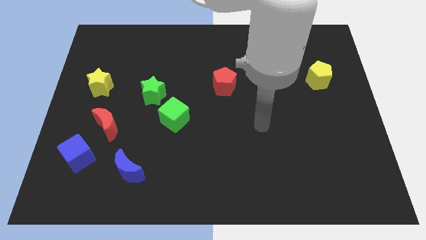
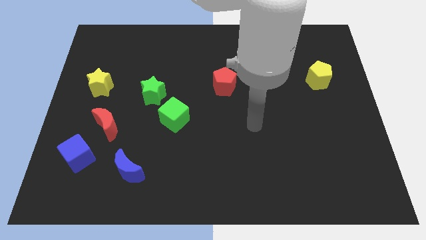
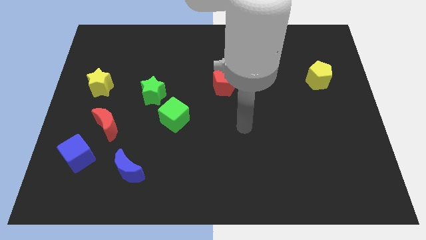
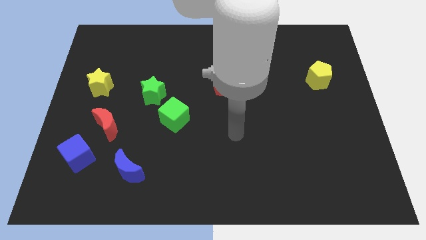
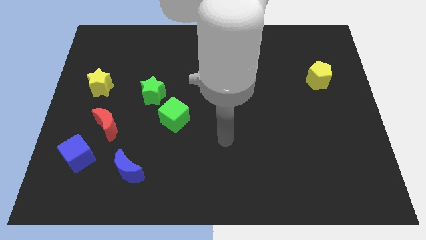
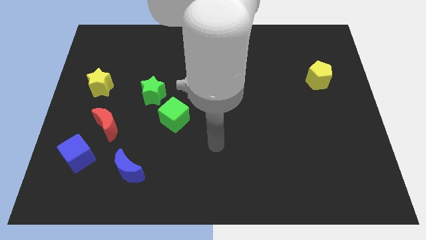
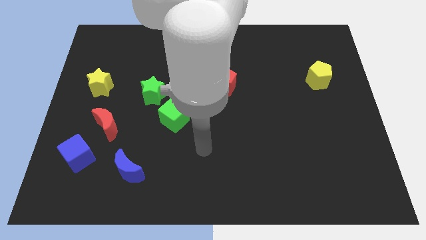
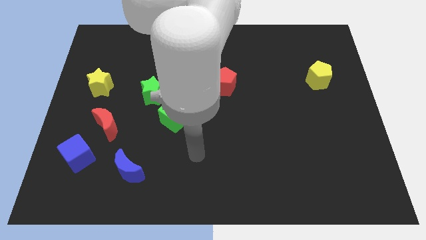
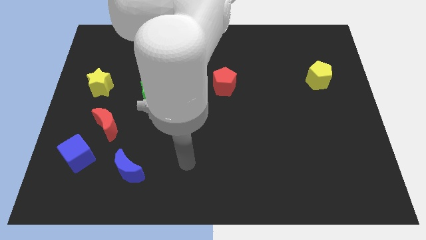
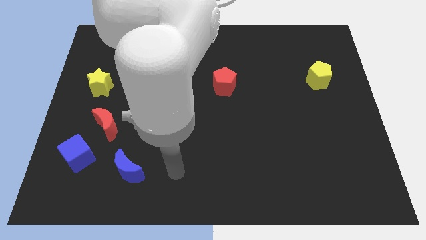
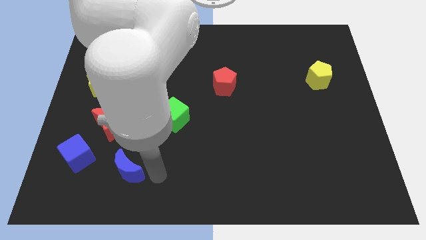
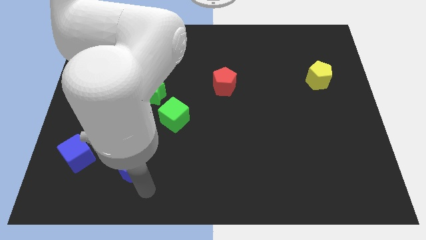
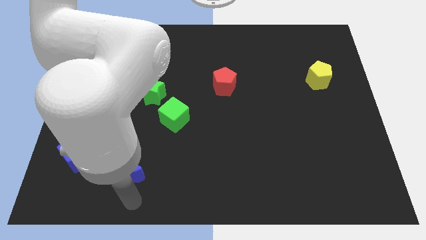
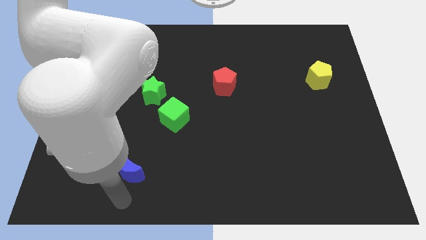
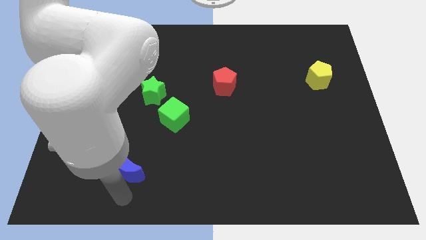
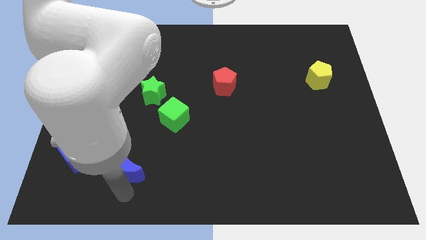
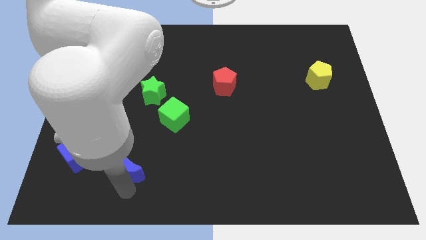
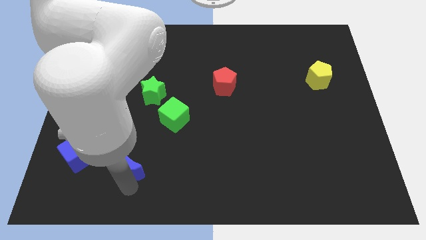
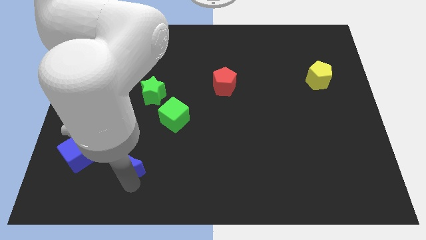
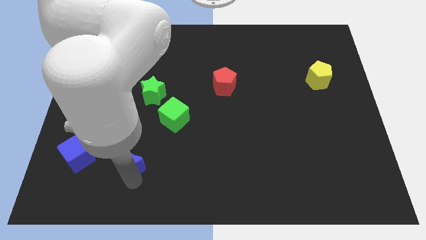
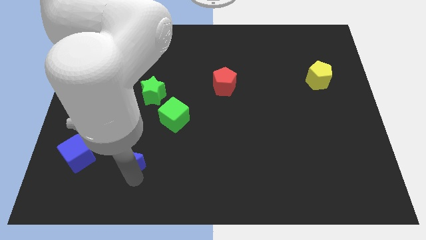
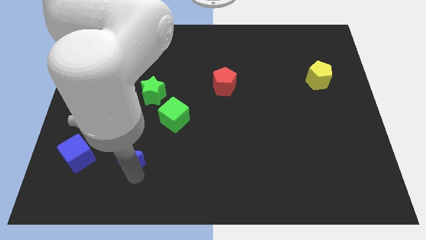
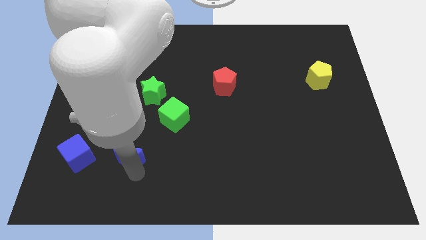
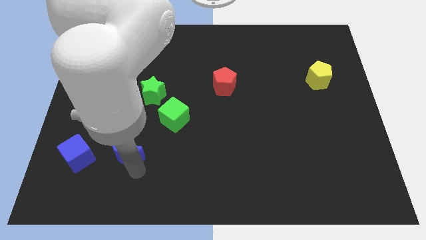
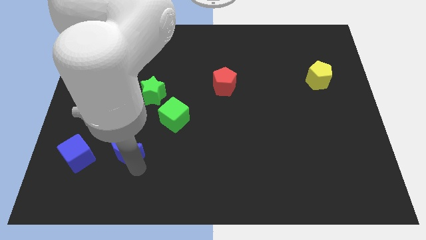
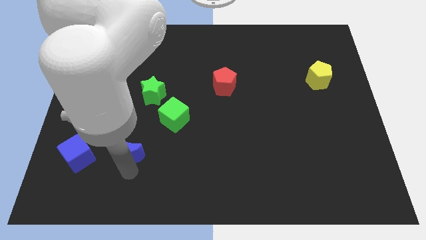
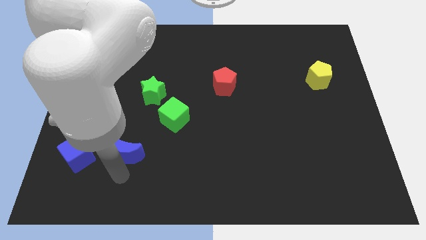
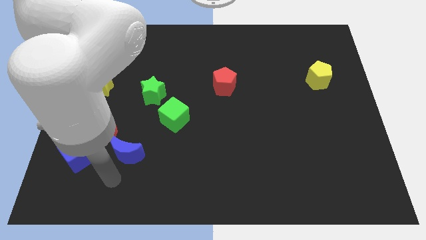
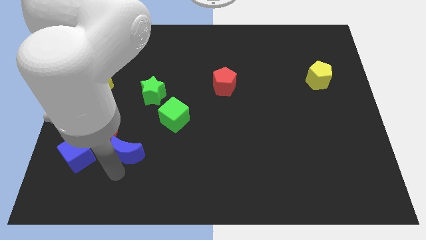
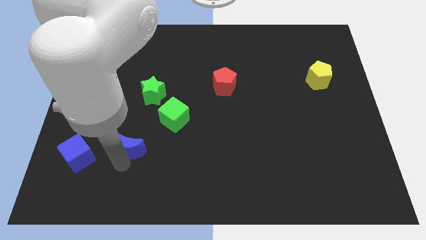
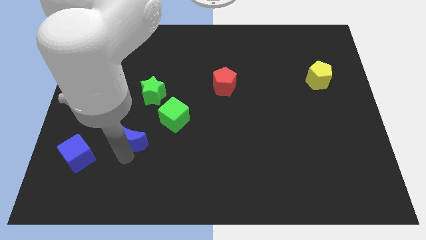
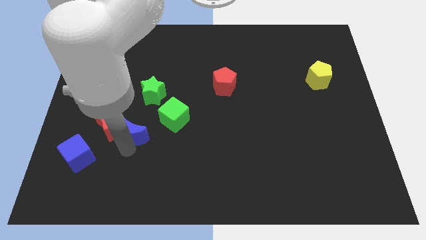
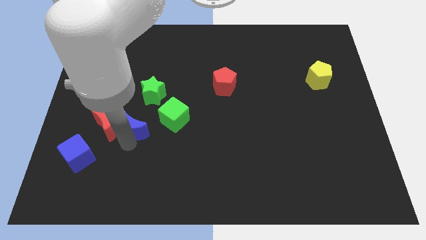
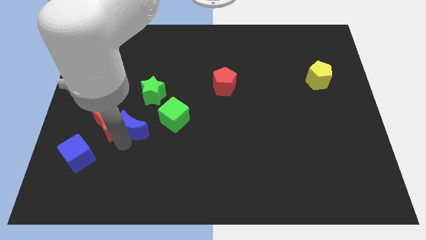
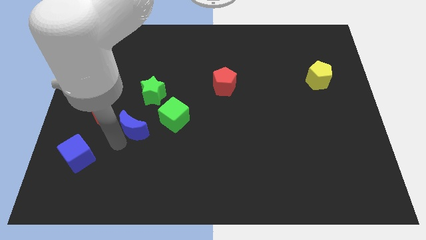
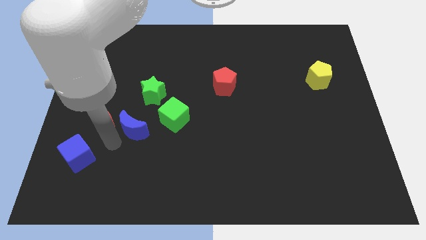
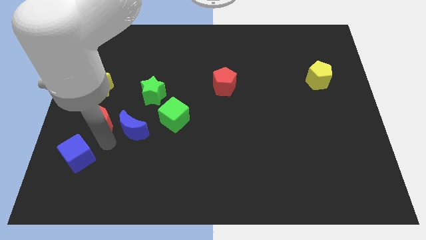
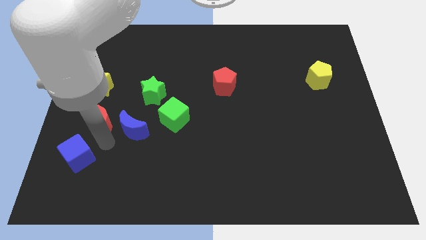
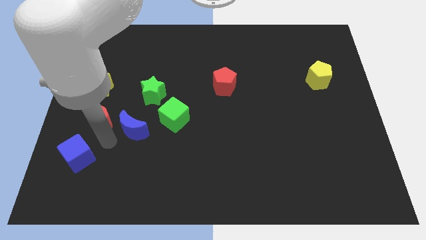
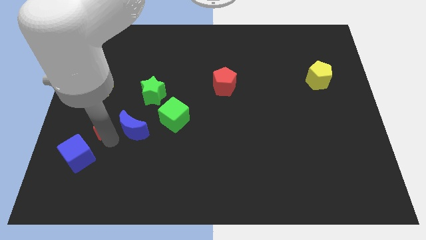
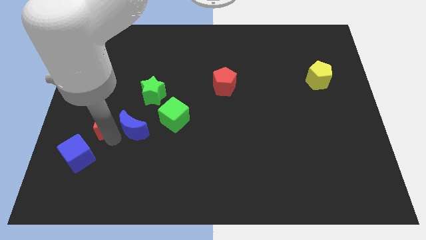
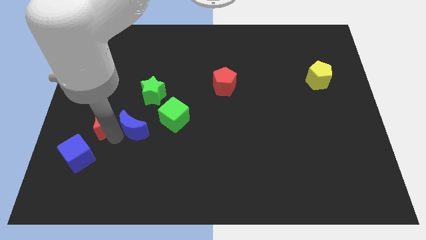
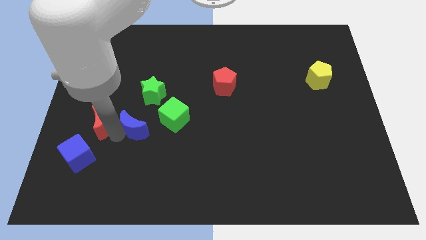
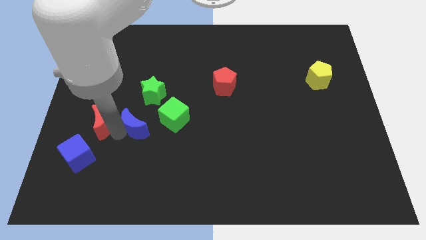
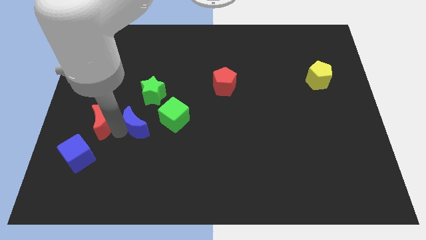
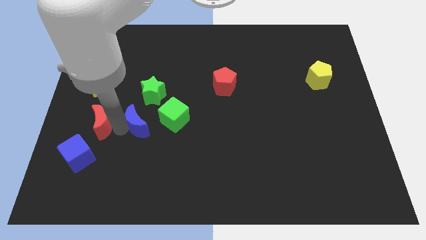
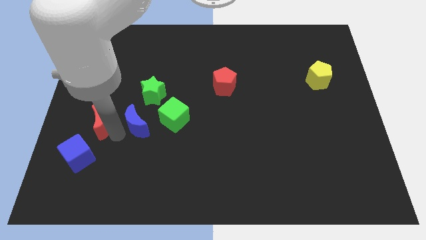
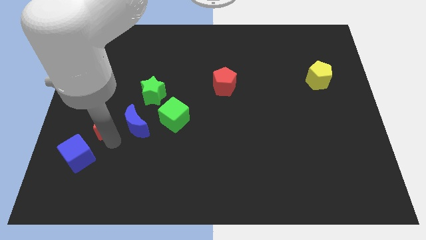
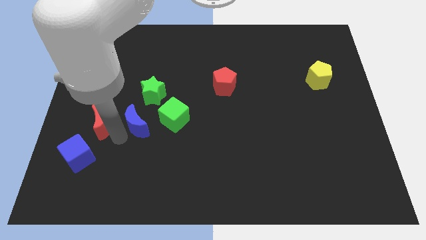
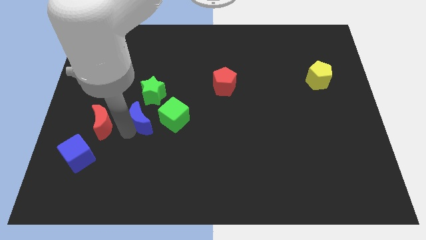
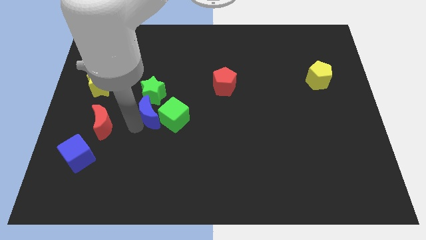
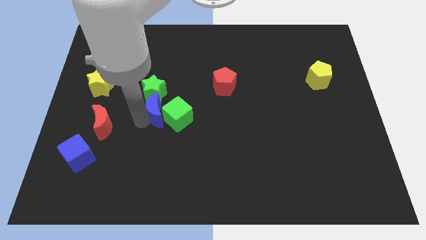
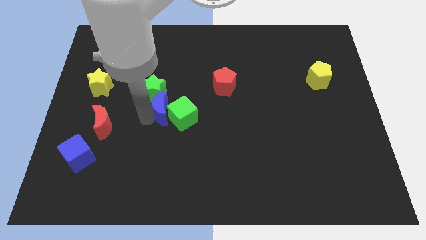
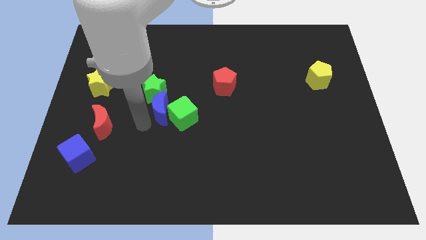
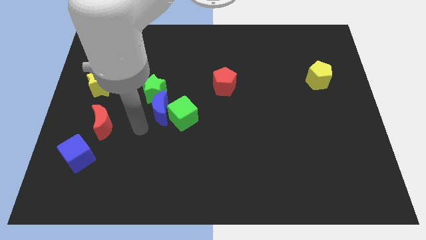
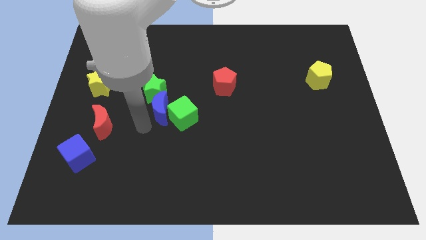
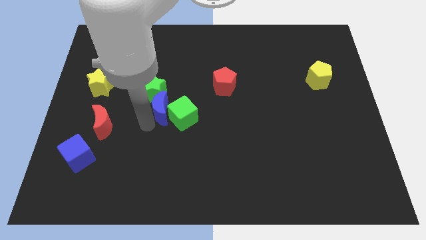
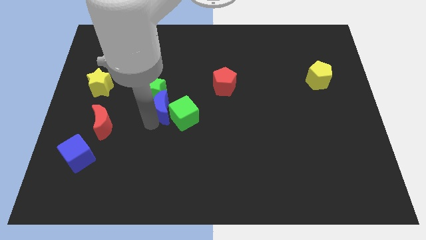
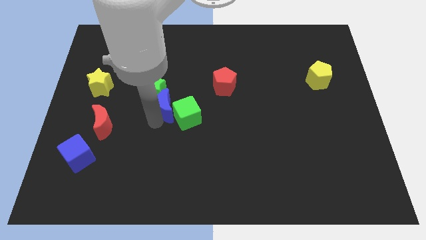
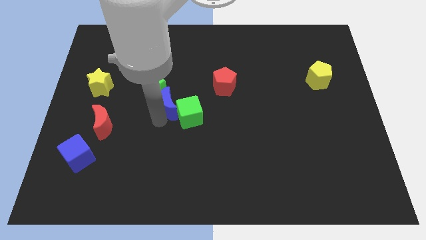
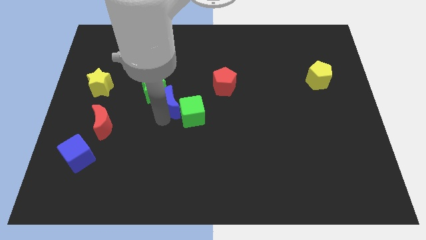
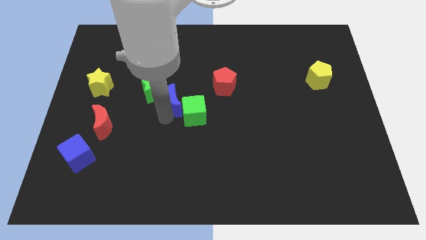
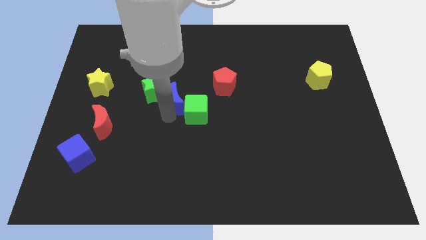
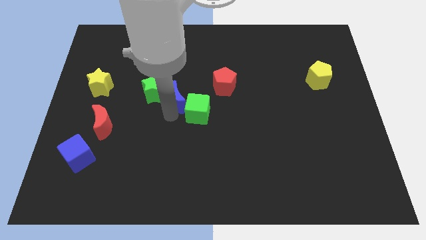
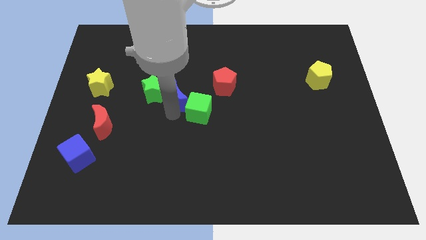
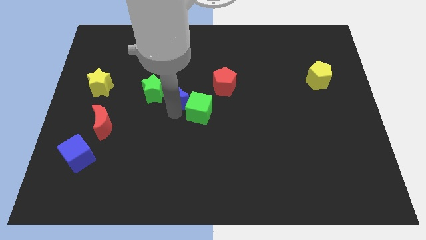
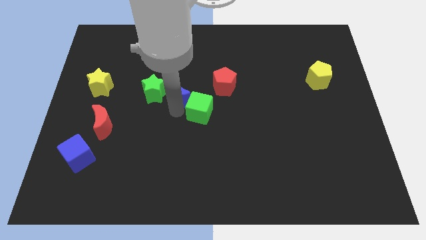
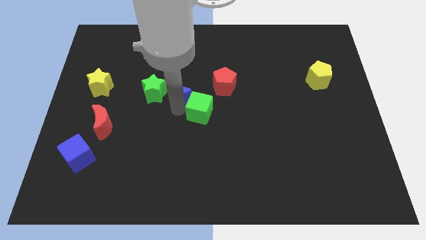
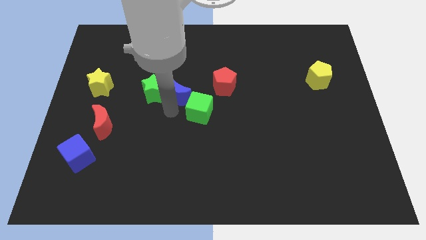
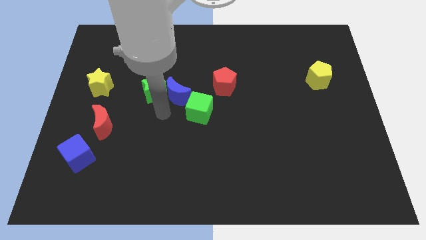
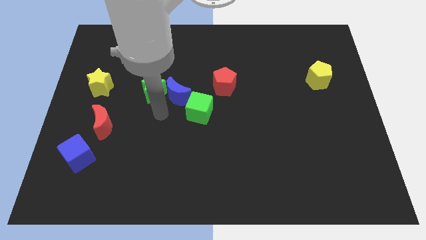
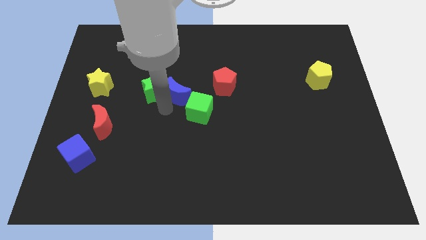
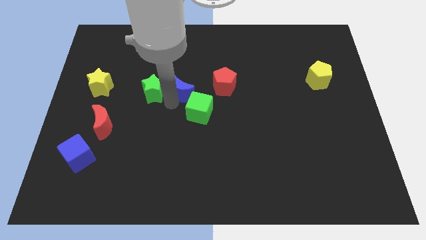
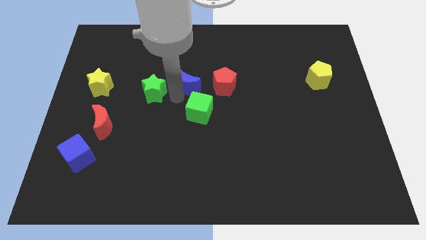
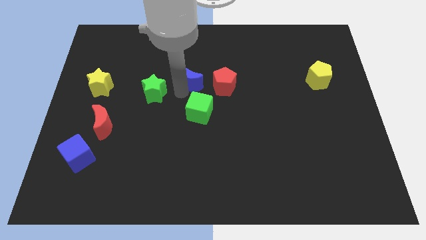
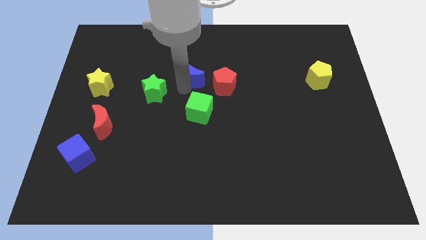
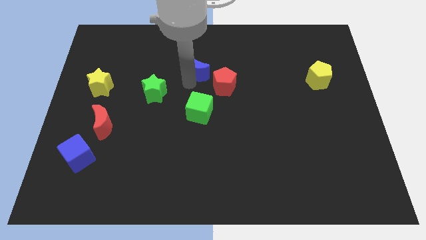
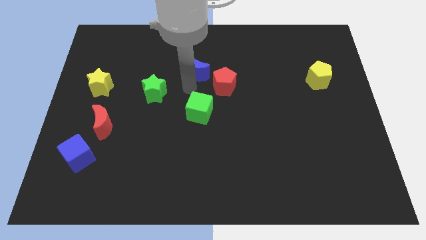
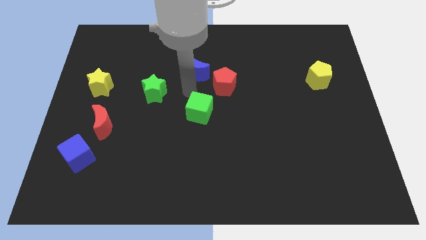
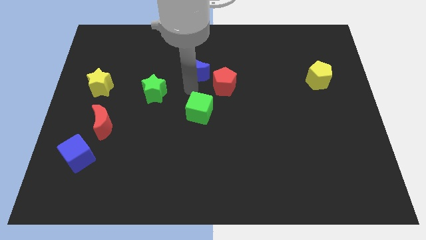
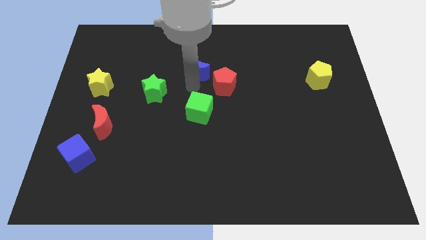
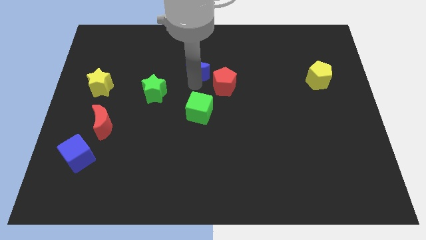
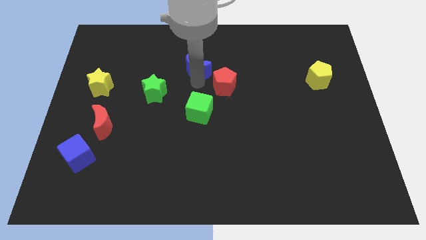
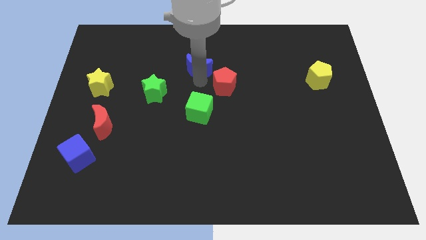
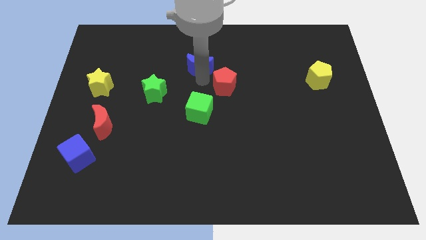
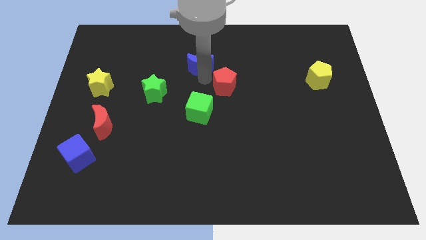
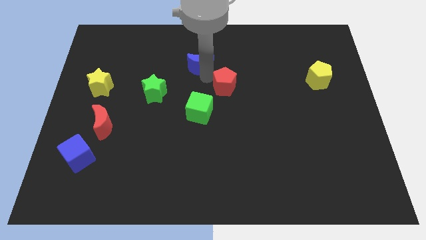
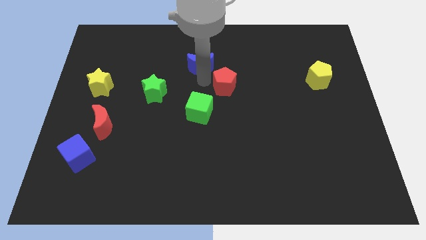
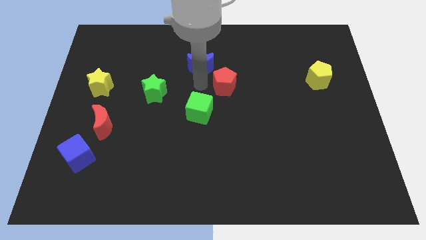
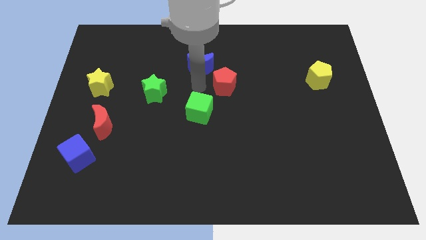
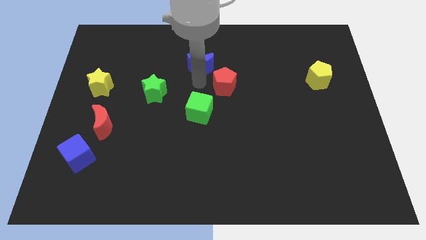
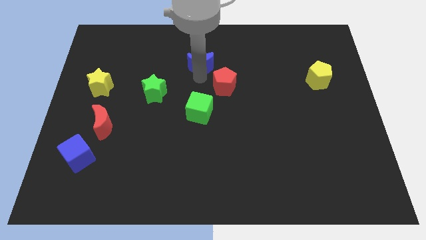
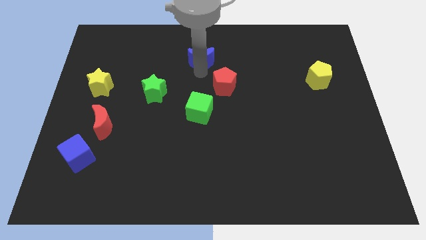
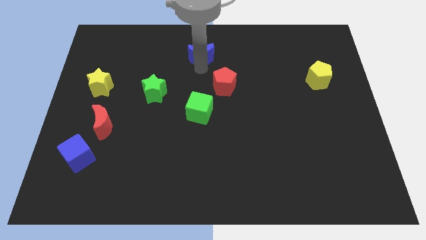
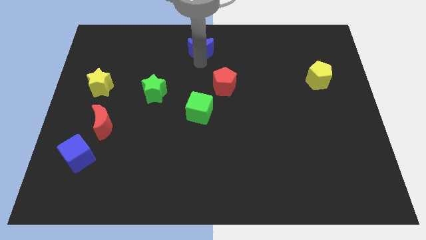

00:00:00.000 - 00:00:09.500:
move the blue moon to the towards your base
